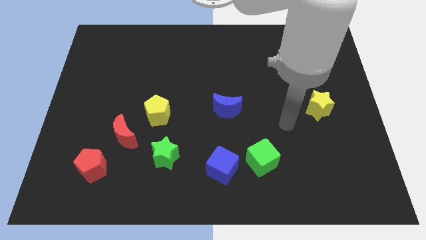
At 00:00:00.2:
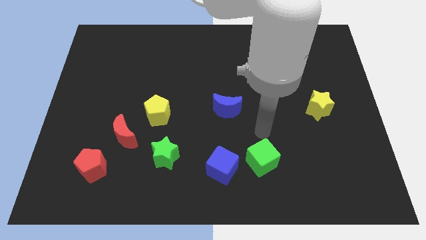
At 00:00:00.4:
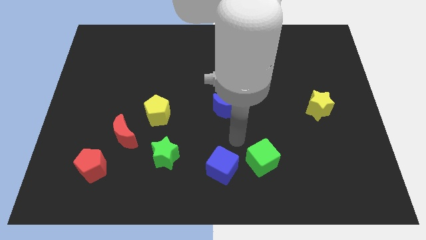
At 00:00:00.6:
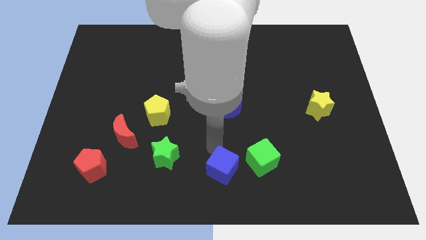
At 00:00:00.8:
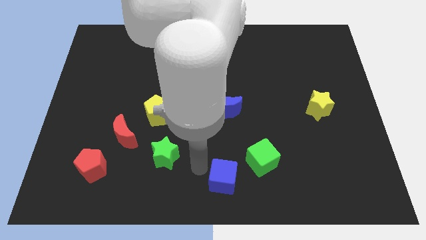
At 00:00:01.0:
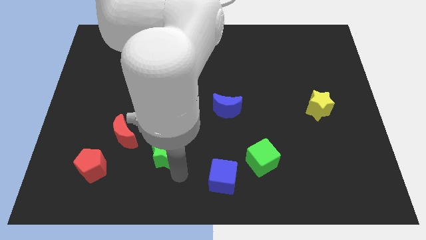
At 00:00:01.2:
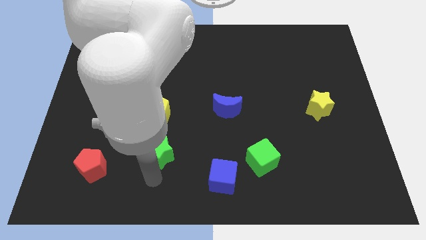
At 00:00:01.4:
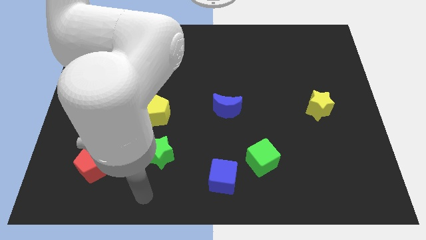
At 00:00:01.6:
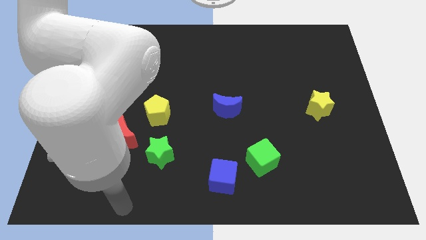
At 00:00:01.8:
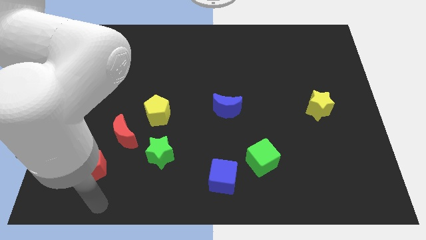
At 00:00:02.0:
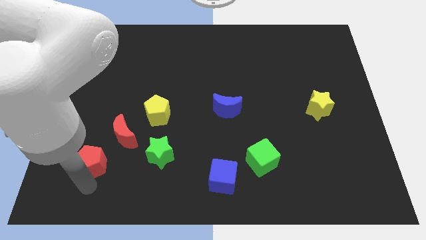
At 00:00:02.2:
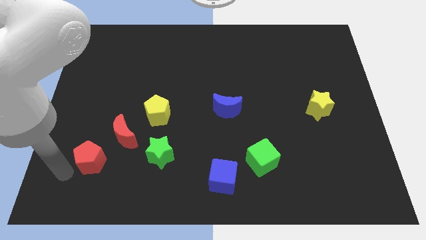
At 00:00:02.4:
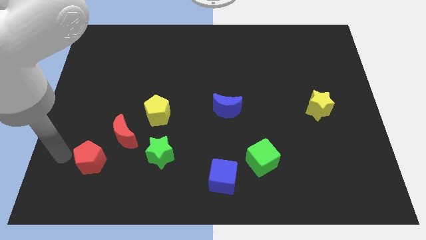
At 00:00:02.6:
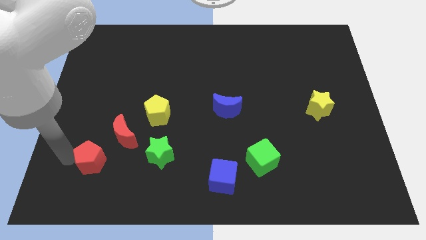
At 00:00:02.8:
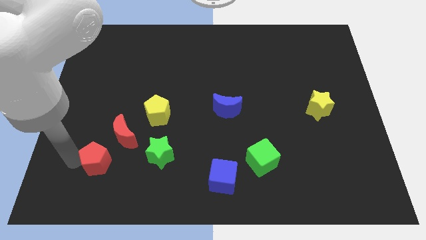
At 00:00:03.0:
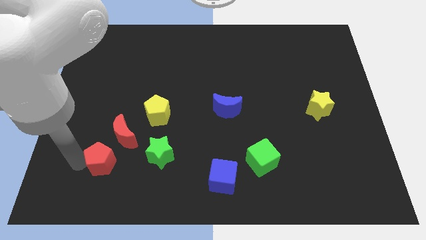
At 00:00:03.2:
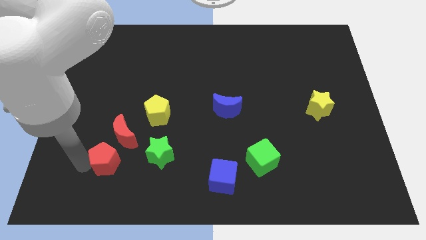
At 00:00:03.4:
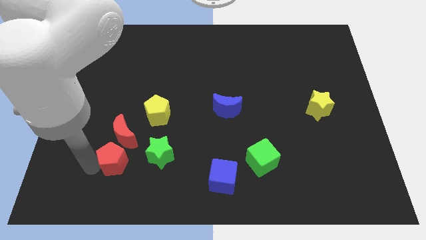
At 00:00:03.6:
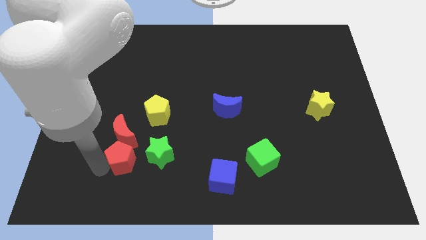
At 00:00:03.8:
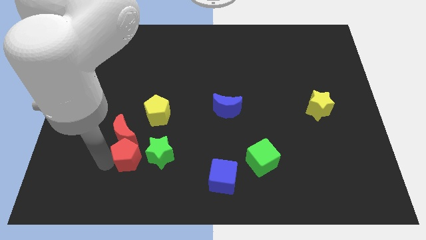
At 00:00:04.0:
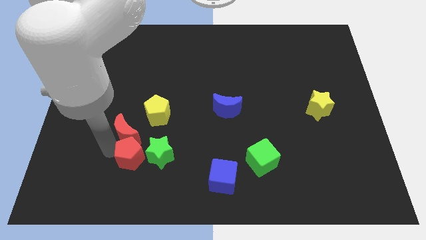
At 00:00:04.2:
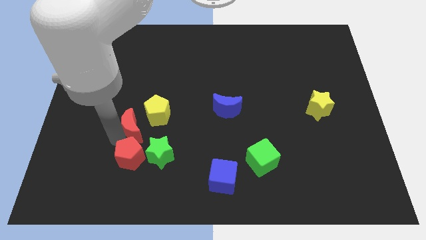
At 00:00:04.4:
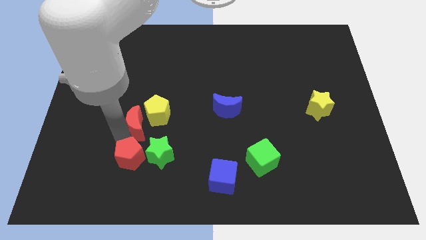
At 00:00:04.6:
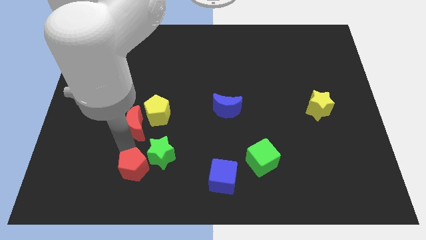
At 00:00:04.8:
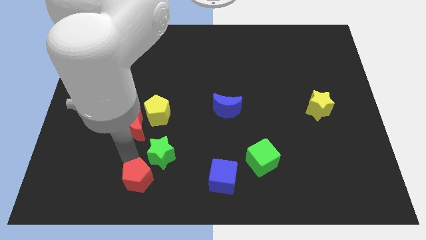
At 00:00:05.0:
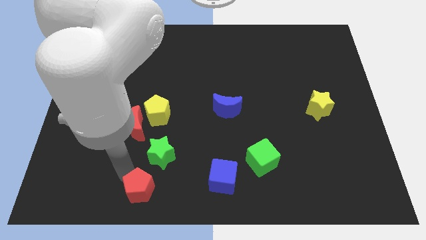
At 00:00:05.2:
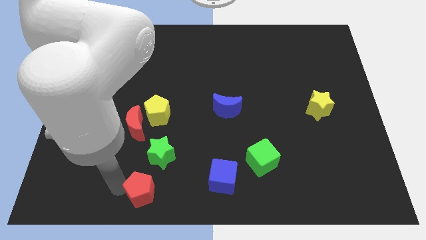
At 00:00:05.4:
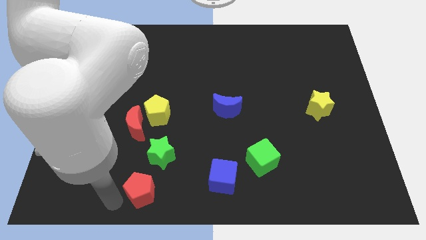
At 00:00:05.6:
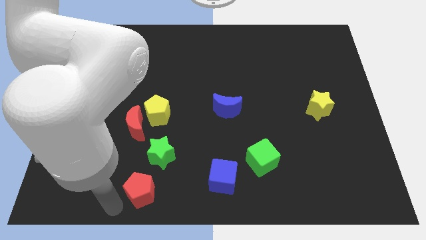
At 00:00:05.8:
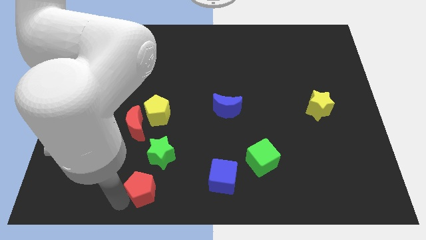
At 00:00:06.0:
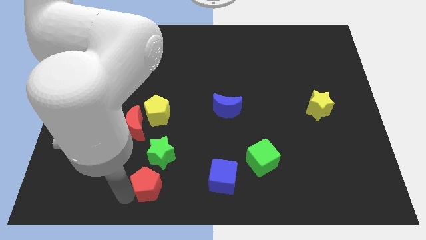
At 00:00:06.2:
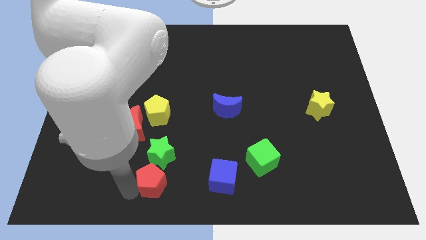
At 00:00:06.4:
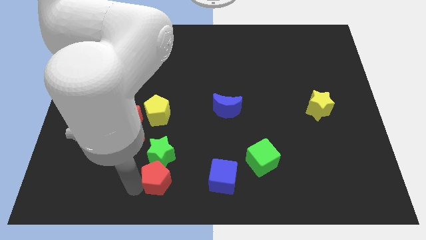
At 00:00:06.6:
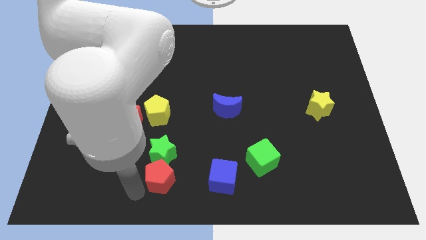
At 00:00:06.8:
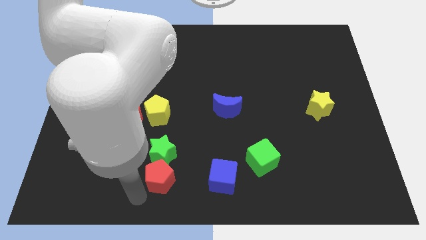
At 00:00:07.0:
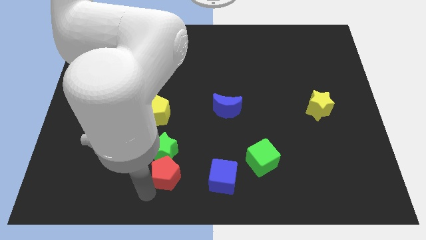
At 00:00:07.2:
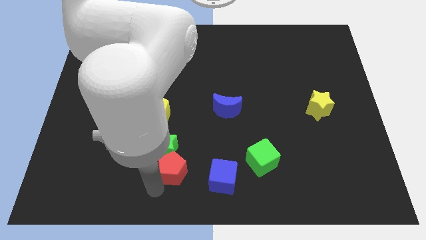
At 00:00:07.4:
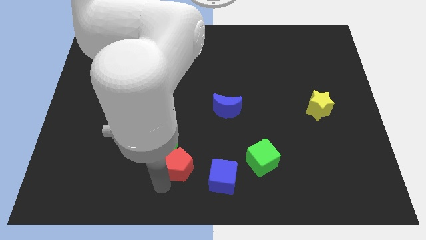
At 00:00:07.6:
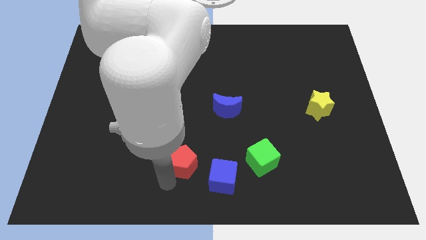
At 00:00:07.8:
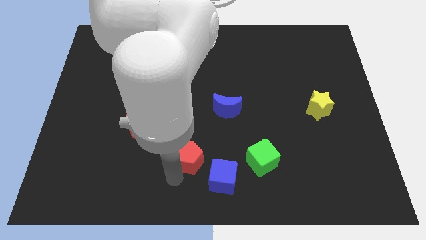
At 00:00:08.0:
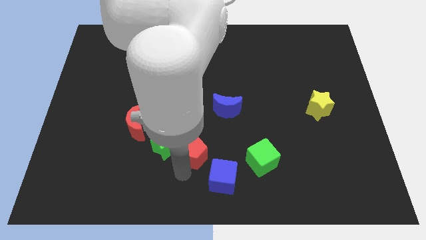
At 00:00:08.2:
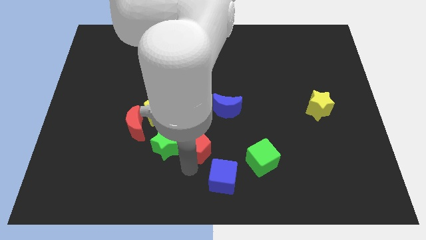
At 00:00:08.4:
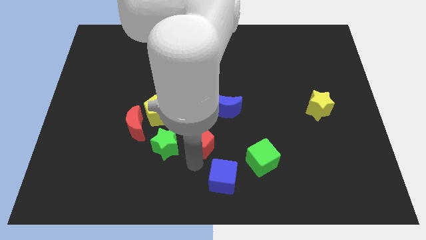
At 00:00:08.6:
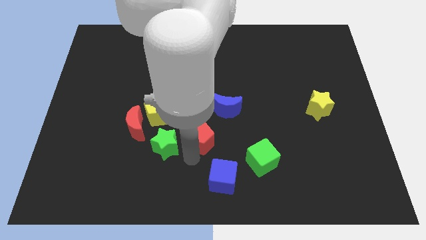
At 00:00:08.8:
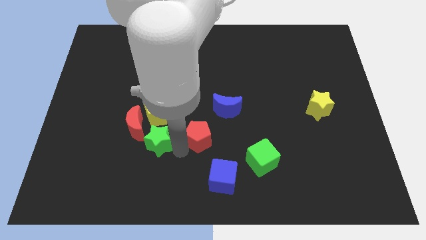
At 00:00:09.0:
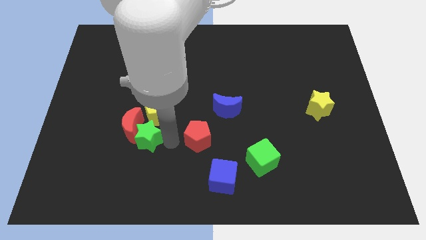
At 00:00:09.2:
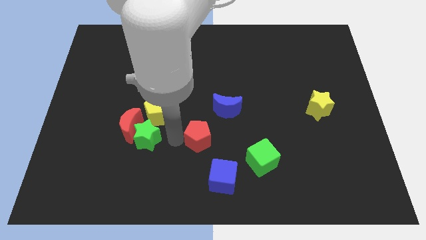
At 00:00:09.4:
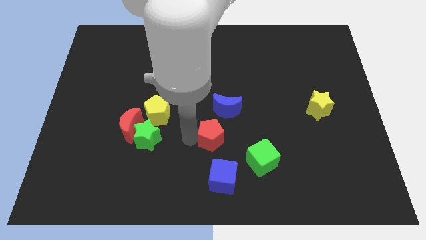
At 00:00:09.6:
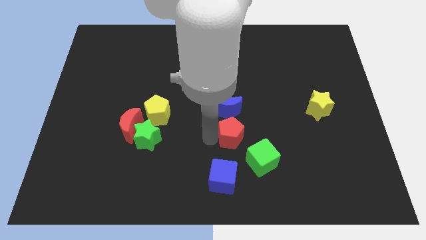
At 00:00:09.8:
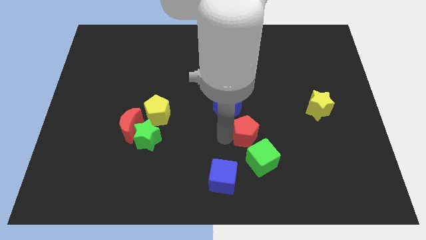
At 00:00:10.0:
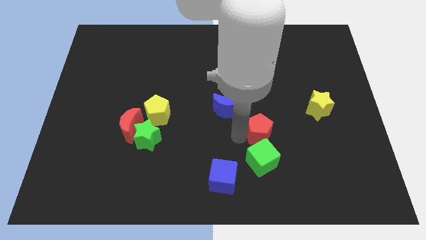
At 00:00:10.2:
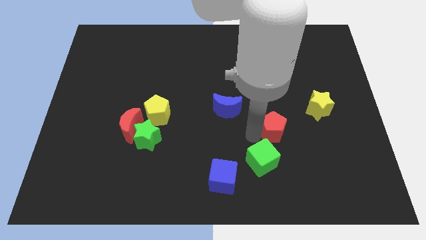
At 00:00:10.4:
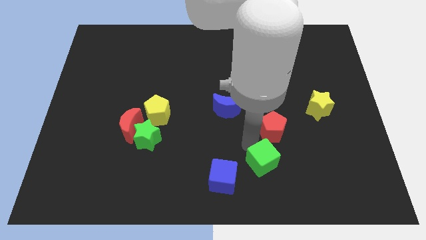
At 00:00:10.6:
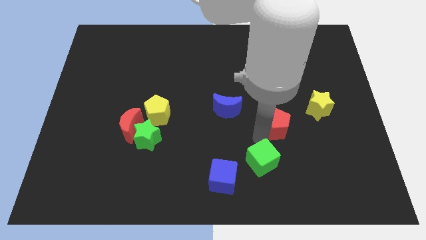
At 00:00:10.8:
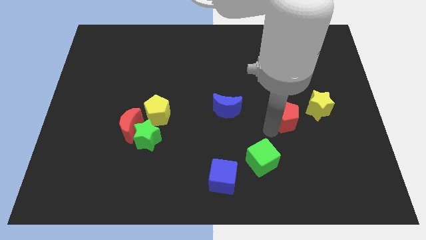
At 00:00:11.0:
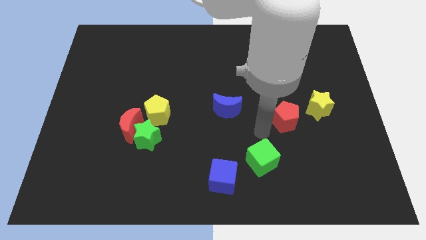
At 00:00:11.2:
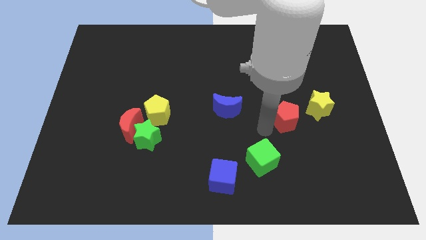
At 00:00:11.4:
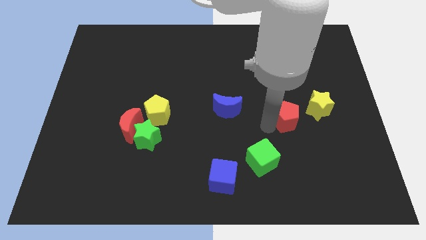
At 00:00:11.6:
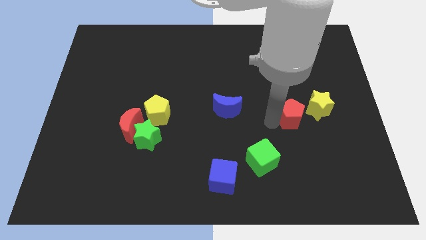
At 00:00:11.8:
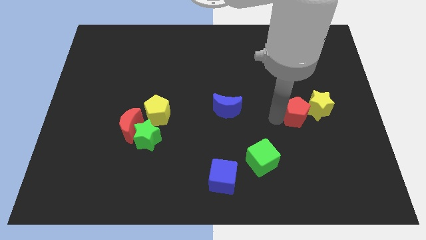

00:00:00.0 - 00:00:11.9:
push the red pentagon to the yellow star

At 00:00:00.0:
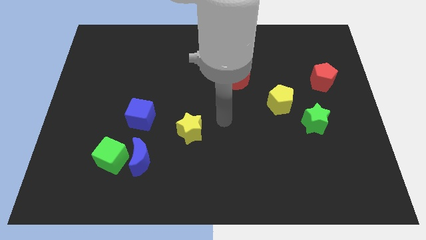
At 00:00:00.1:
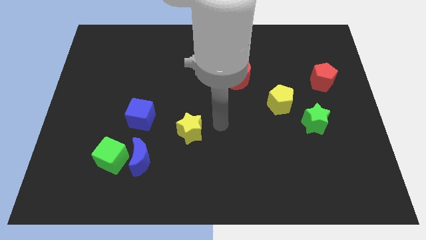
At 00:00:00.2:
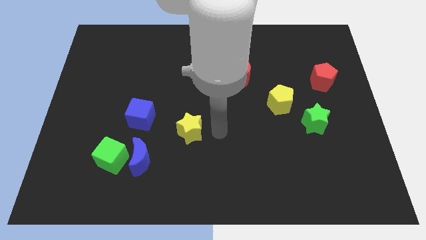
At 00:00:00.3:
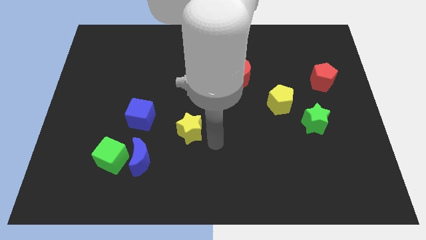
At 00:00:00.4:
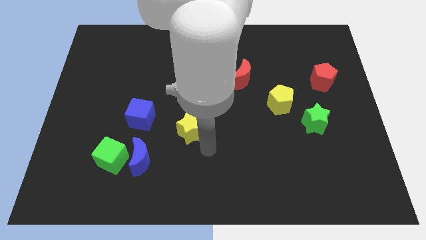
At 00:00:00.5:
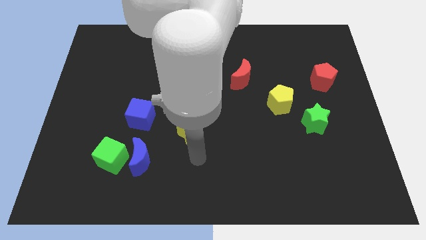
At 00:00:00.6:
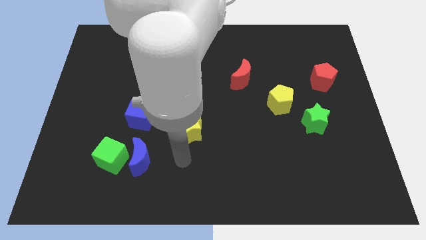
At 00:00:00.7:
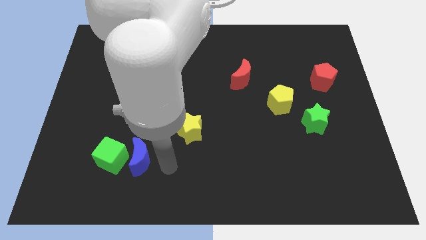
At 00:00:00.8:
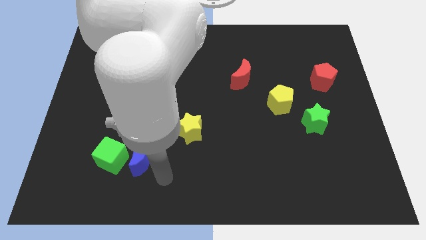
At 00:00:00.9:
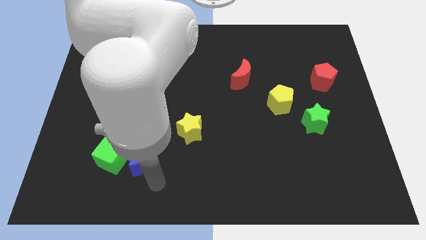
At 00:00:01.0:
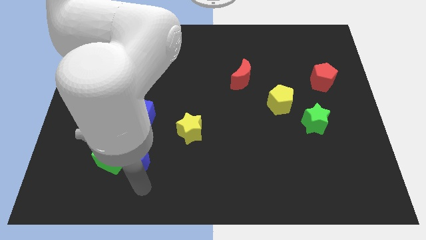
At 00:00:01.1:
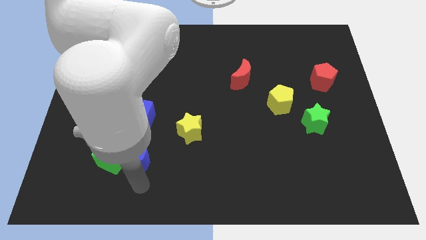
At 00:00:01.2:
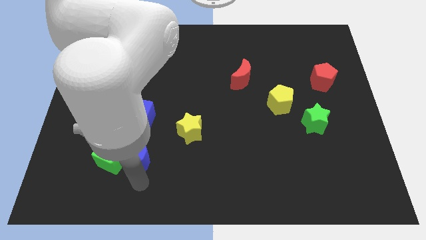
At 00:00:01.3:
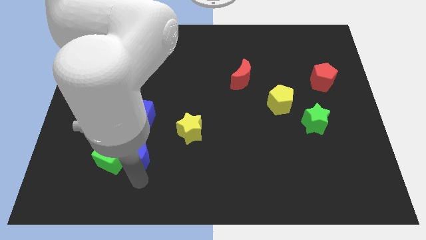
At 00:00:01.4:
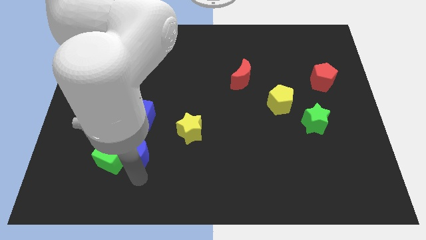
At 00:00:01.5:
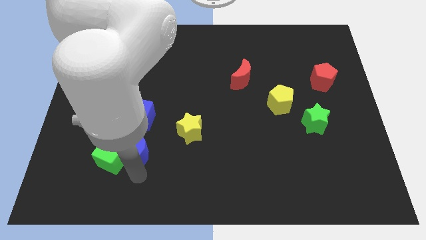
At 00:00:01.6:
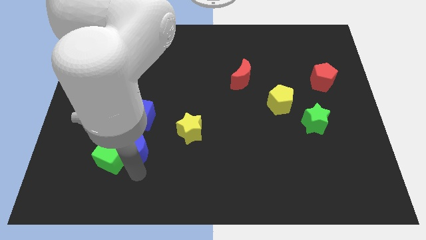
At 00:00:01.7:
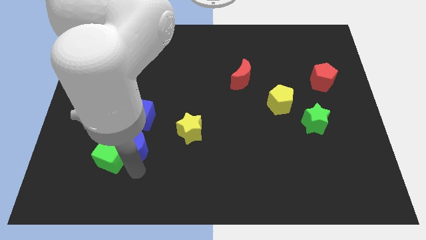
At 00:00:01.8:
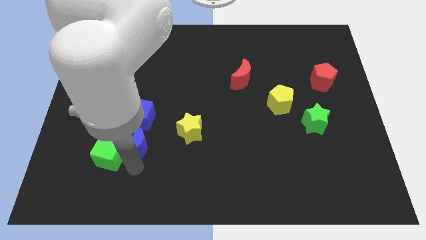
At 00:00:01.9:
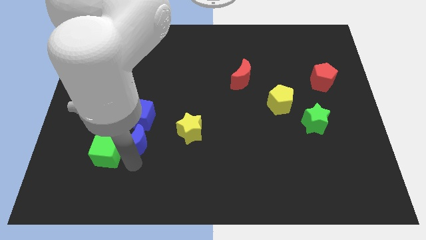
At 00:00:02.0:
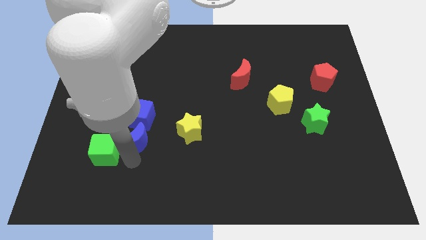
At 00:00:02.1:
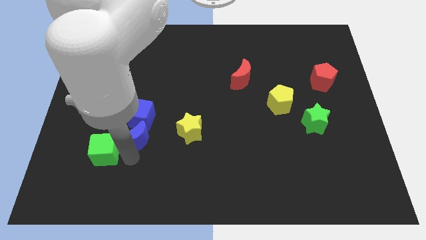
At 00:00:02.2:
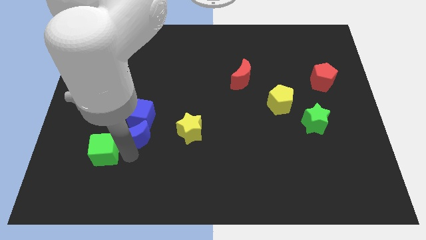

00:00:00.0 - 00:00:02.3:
push the blue moon to the blue cube
